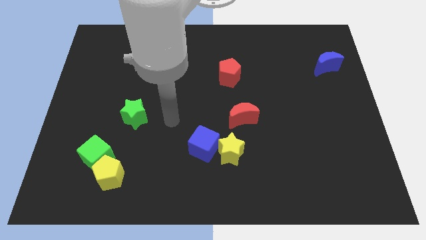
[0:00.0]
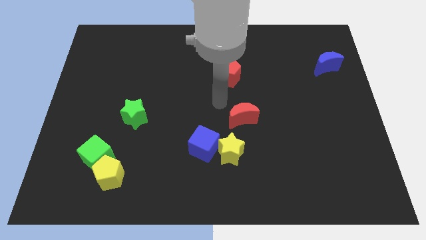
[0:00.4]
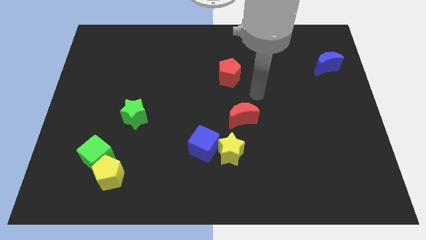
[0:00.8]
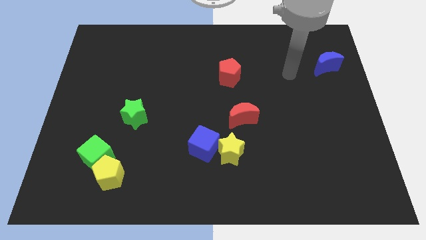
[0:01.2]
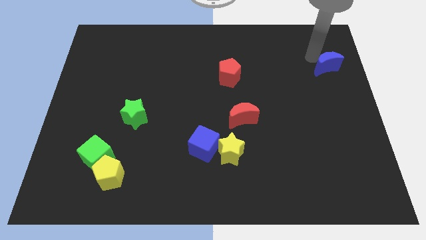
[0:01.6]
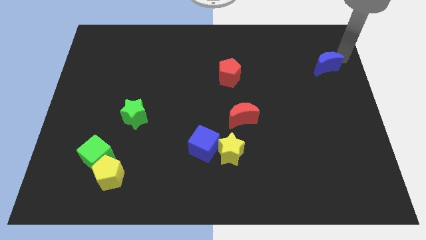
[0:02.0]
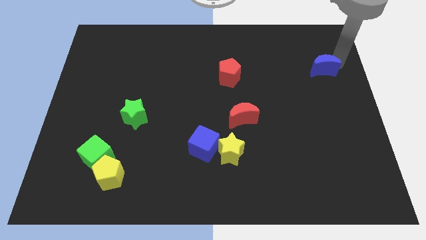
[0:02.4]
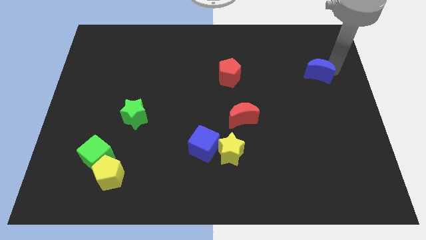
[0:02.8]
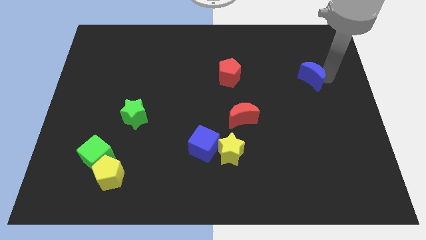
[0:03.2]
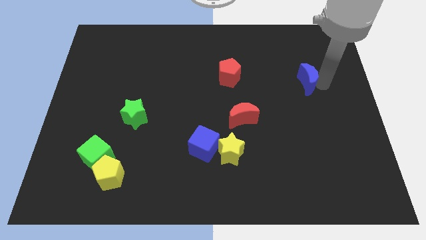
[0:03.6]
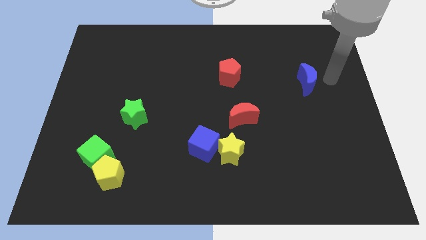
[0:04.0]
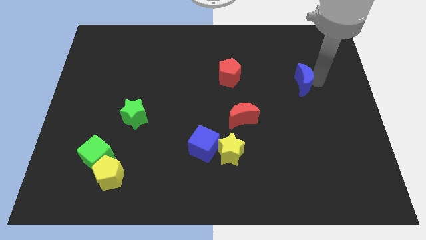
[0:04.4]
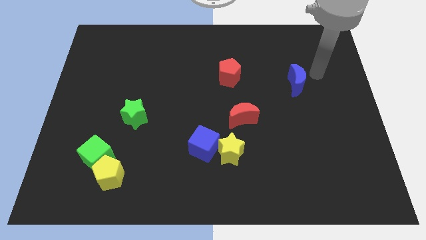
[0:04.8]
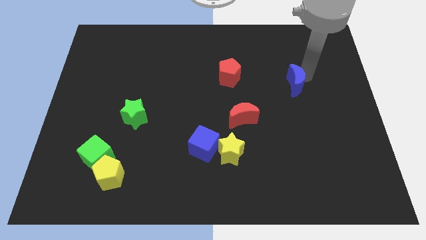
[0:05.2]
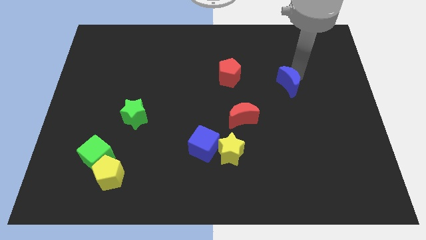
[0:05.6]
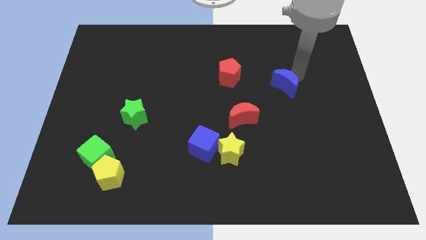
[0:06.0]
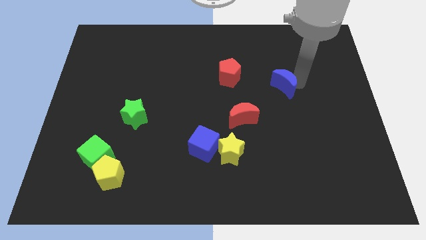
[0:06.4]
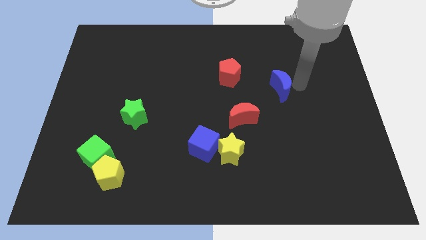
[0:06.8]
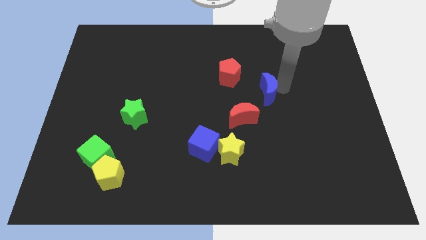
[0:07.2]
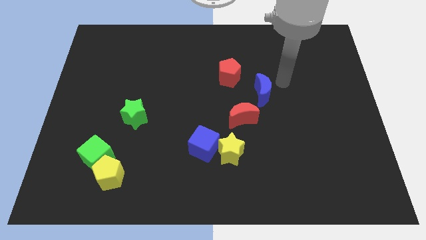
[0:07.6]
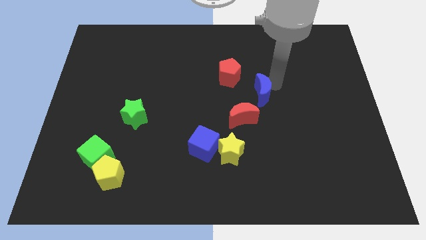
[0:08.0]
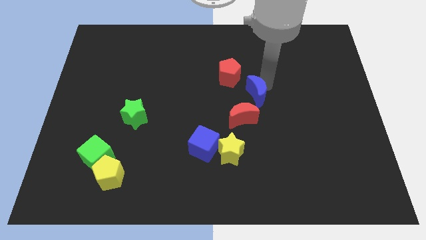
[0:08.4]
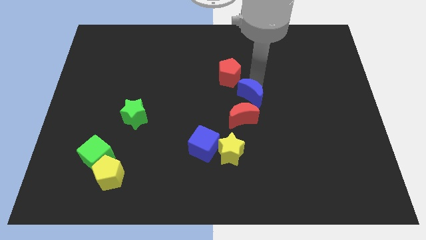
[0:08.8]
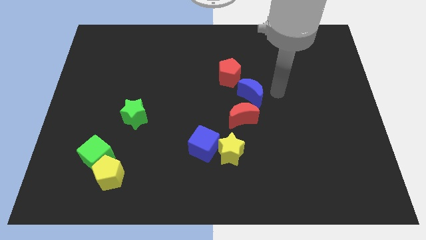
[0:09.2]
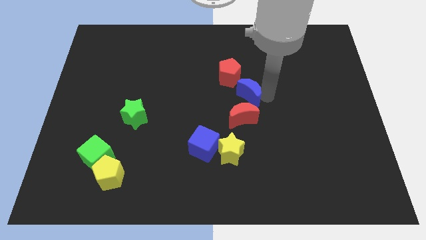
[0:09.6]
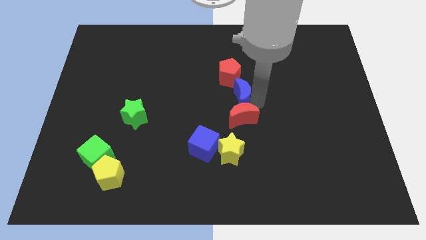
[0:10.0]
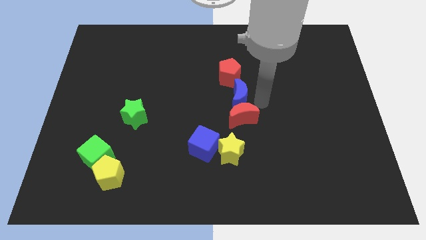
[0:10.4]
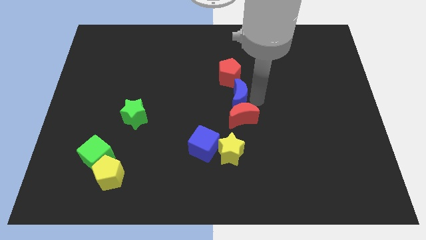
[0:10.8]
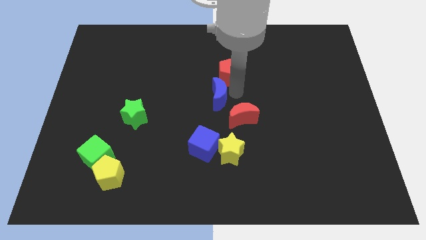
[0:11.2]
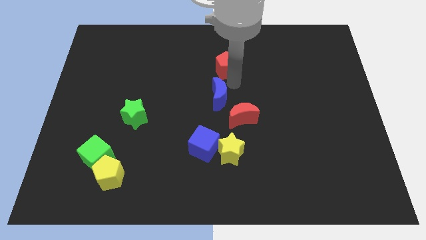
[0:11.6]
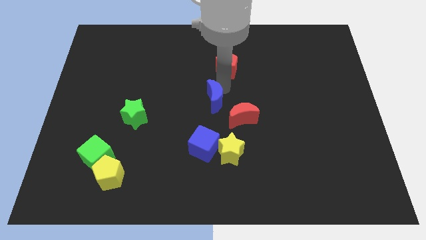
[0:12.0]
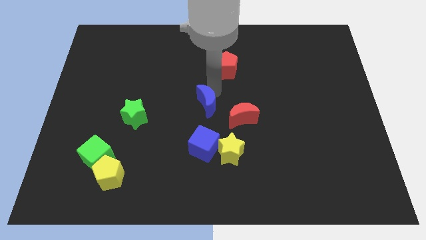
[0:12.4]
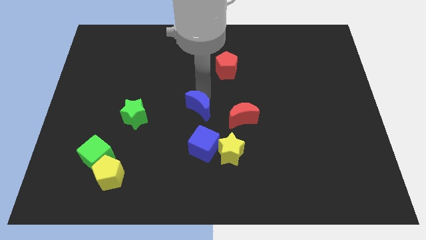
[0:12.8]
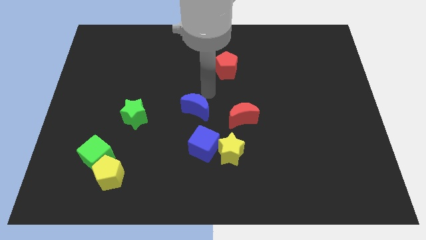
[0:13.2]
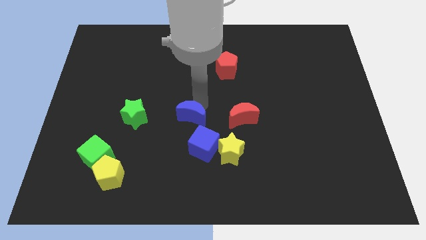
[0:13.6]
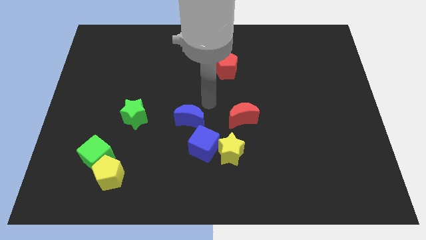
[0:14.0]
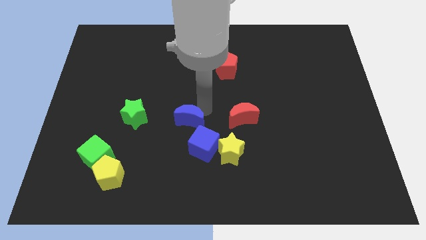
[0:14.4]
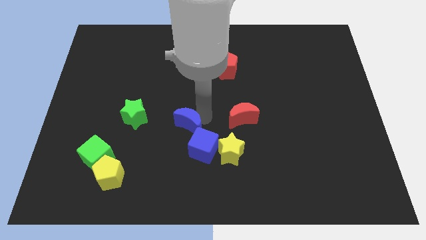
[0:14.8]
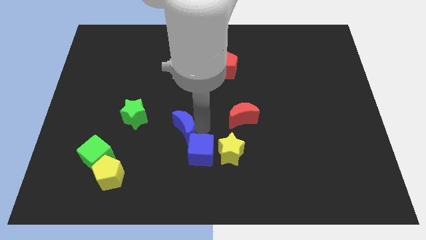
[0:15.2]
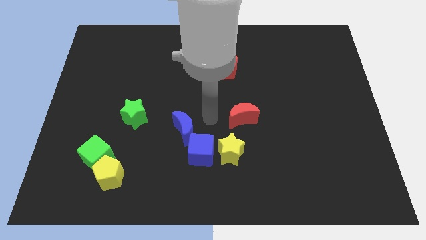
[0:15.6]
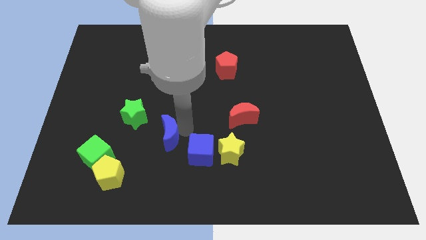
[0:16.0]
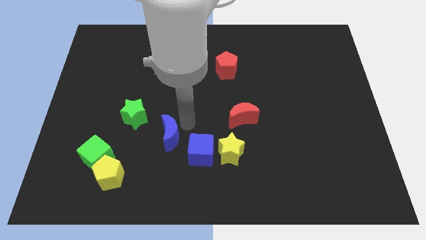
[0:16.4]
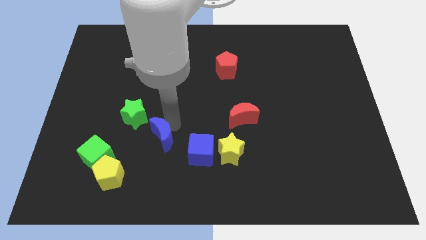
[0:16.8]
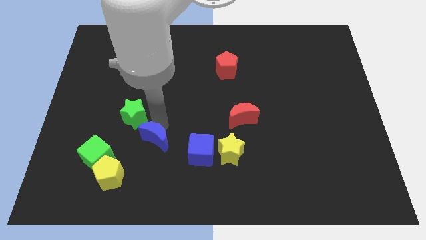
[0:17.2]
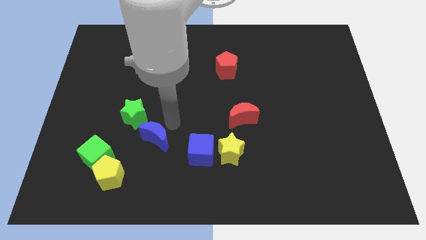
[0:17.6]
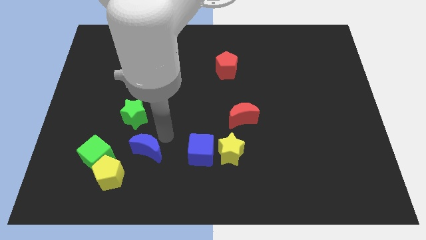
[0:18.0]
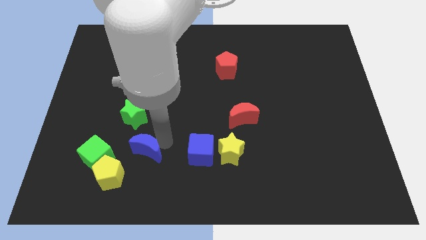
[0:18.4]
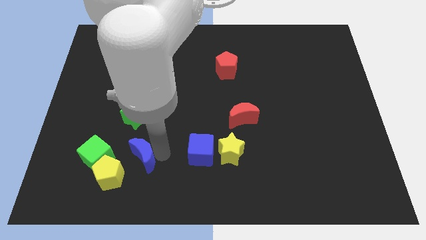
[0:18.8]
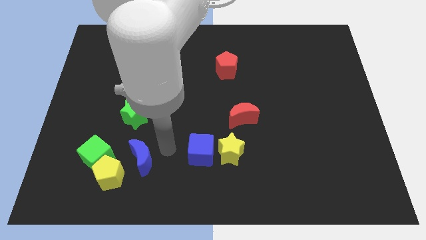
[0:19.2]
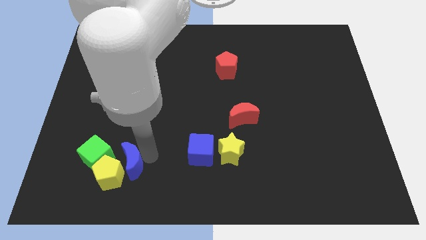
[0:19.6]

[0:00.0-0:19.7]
put the blue moon to the yellow pentagon

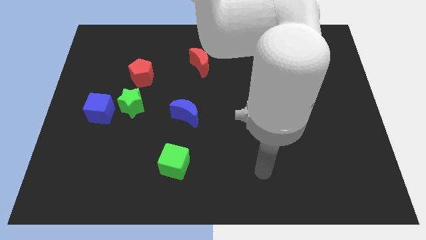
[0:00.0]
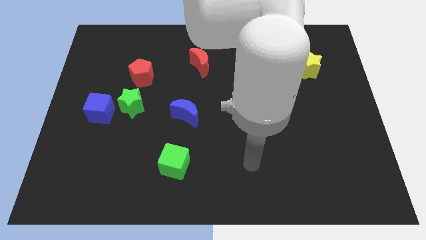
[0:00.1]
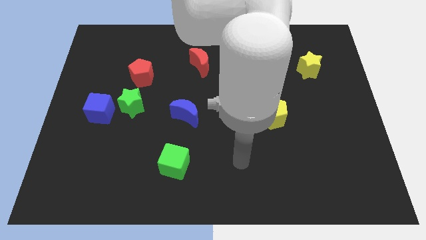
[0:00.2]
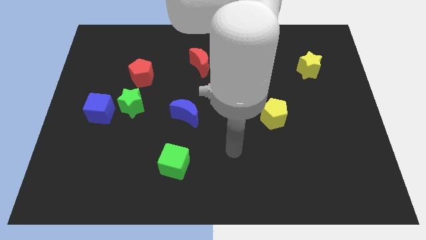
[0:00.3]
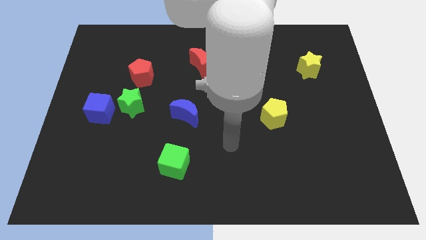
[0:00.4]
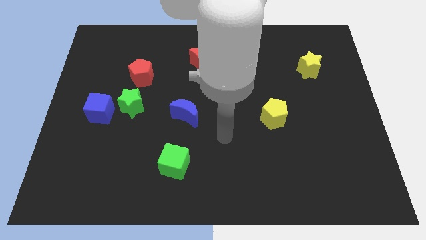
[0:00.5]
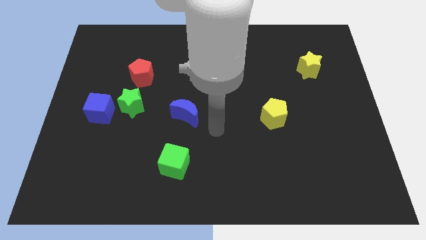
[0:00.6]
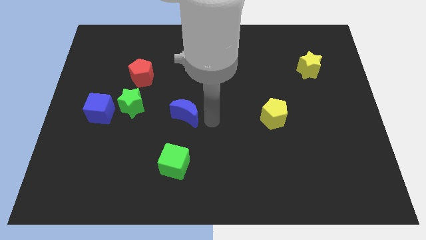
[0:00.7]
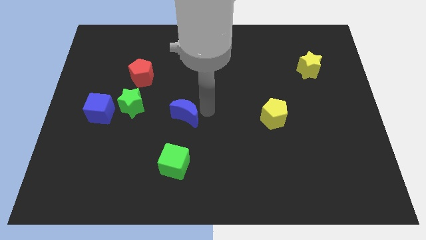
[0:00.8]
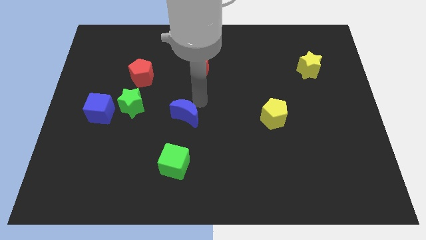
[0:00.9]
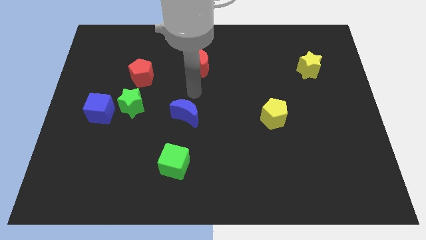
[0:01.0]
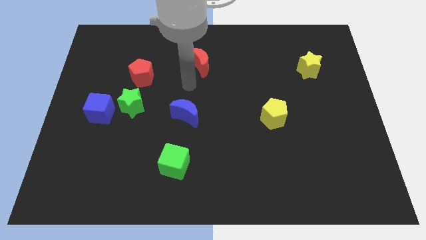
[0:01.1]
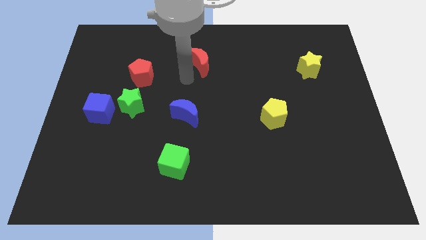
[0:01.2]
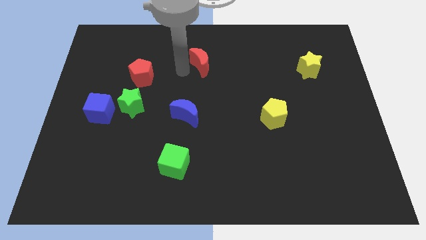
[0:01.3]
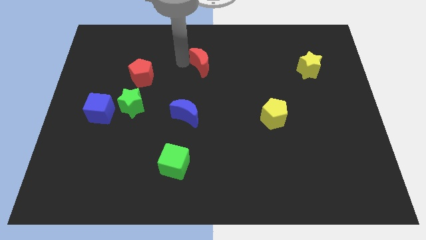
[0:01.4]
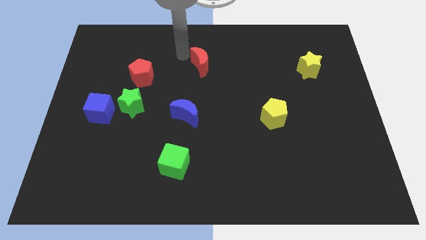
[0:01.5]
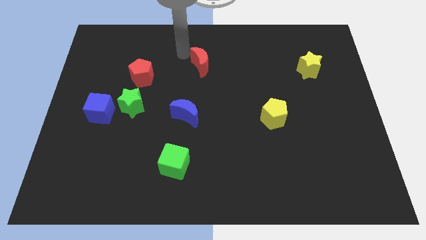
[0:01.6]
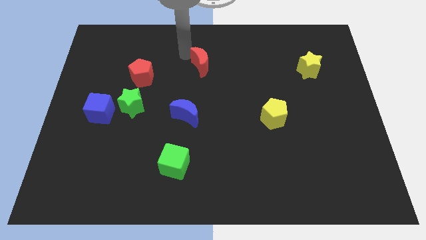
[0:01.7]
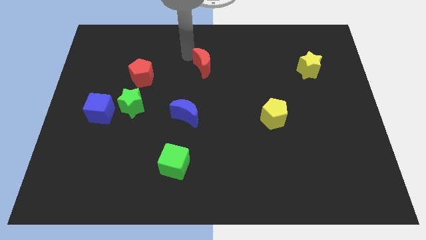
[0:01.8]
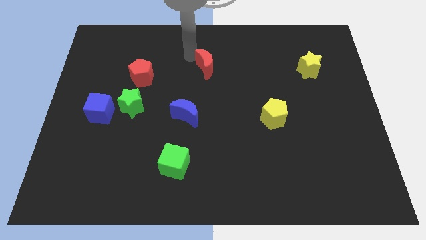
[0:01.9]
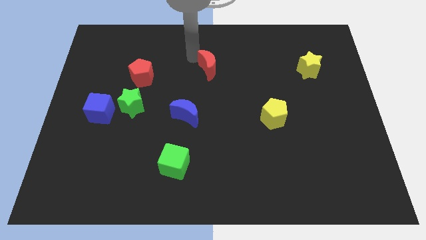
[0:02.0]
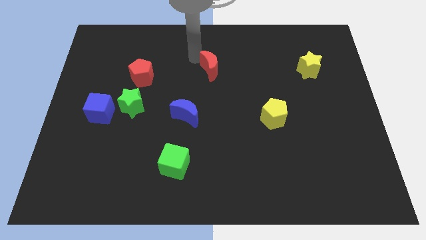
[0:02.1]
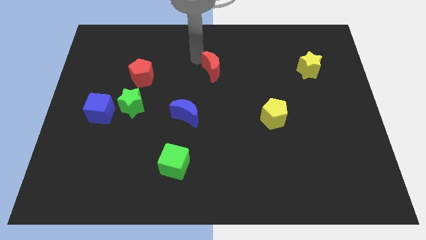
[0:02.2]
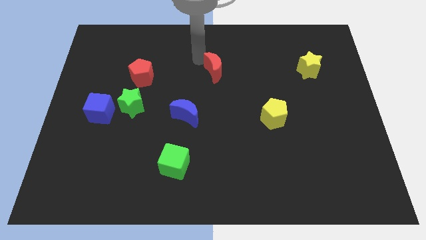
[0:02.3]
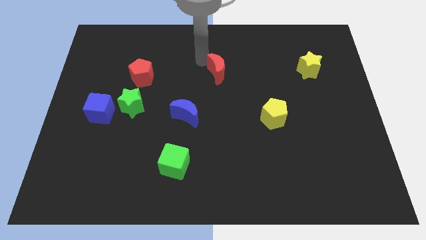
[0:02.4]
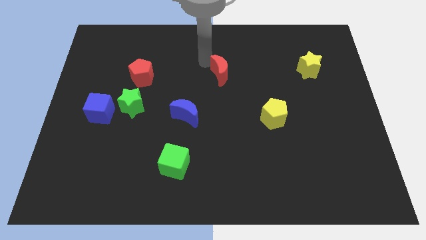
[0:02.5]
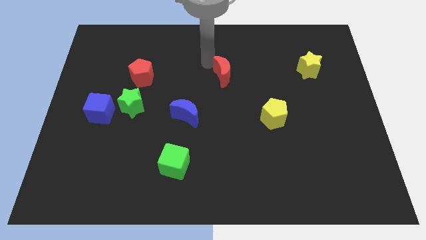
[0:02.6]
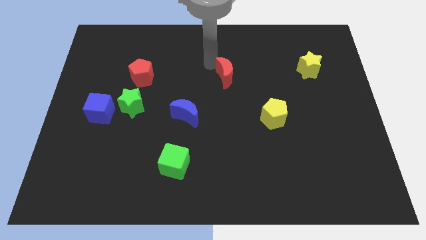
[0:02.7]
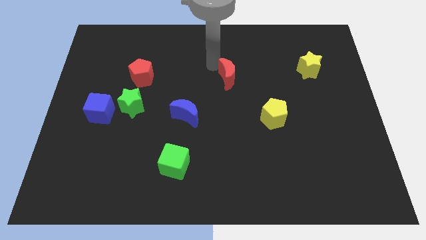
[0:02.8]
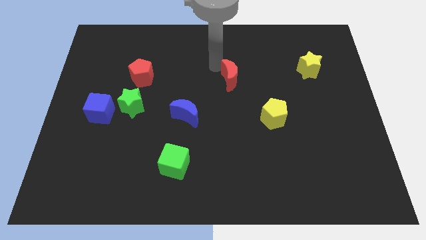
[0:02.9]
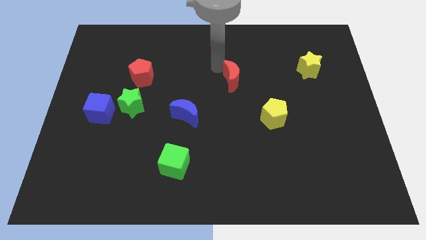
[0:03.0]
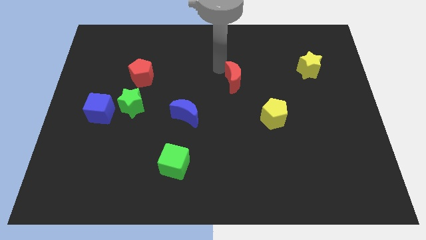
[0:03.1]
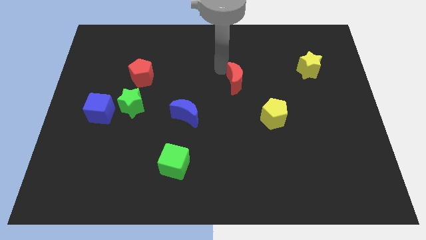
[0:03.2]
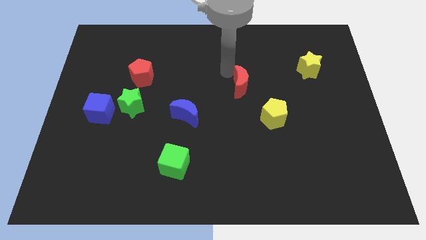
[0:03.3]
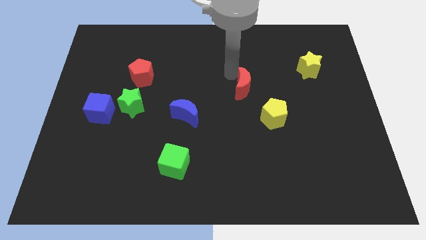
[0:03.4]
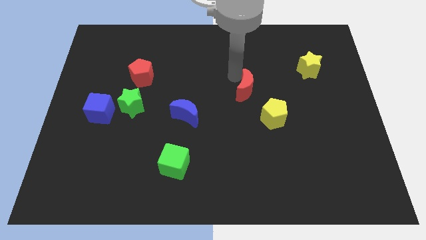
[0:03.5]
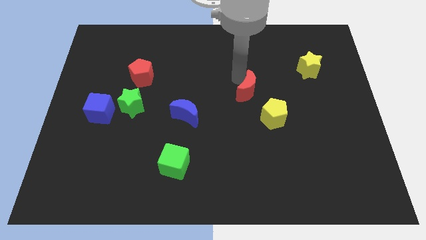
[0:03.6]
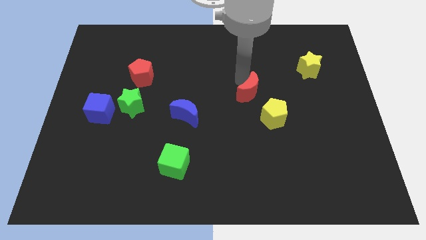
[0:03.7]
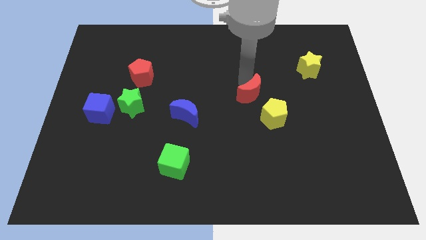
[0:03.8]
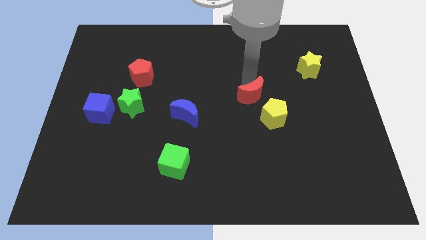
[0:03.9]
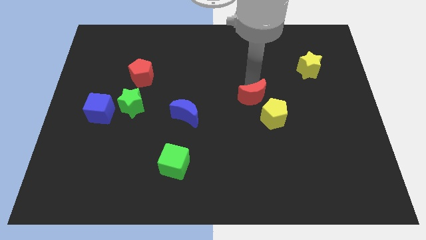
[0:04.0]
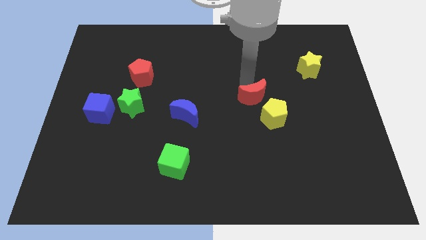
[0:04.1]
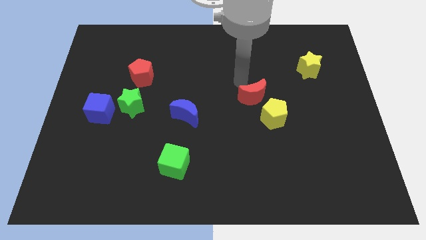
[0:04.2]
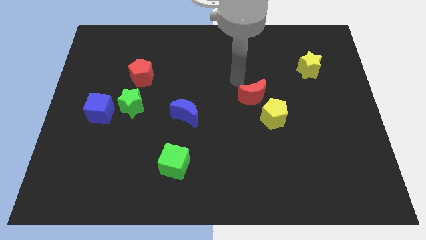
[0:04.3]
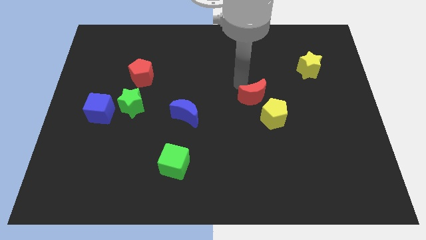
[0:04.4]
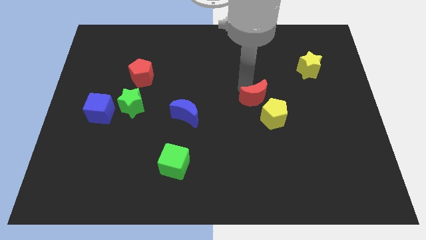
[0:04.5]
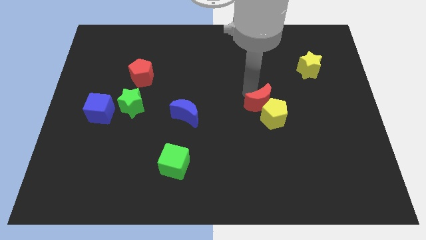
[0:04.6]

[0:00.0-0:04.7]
move the red moon close to the yellow pentagon
